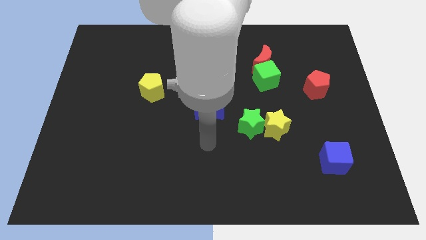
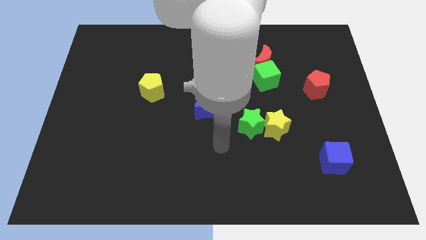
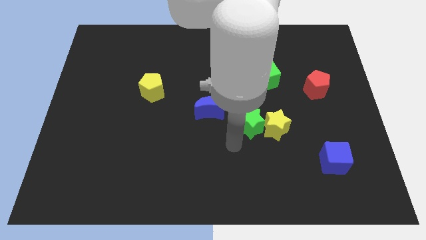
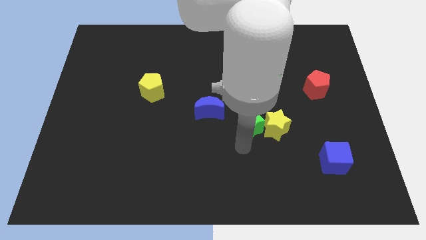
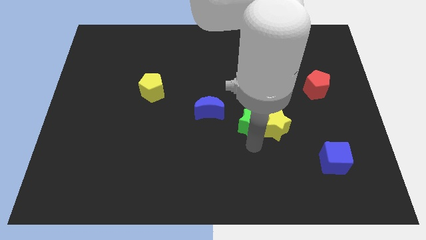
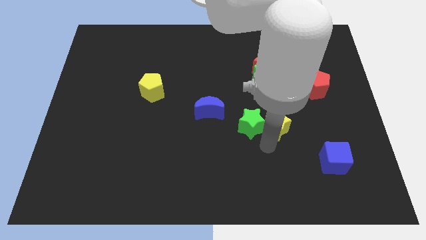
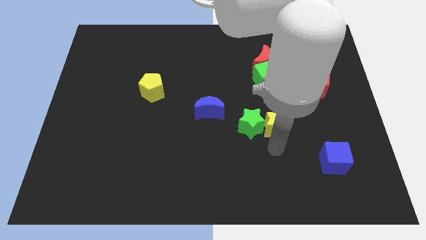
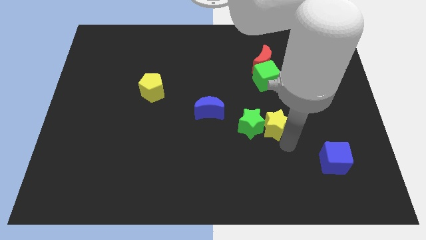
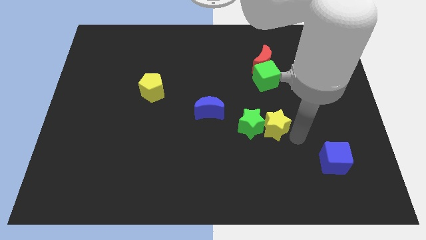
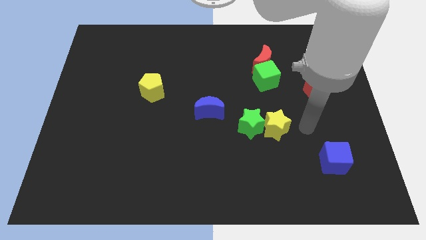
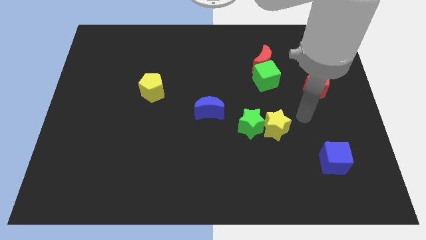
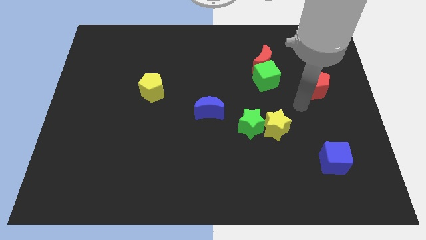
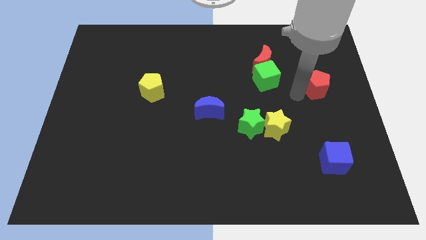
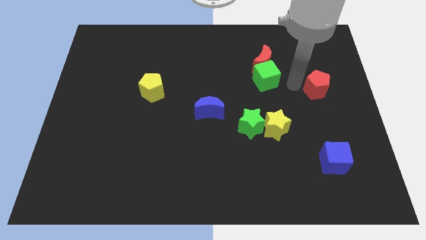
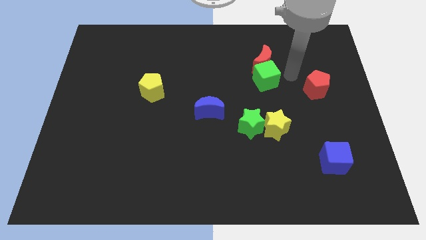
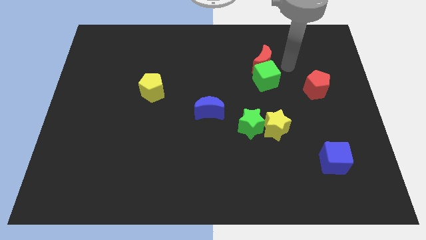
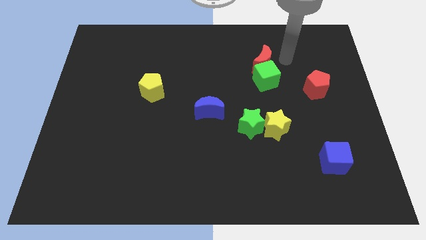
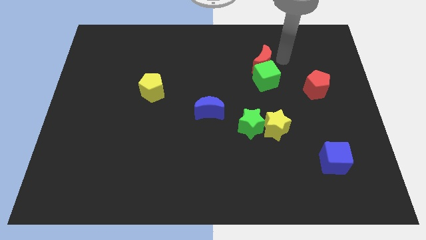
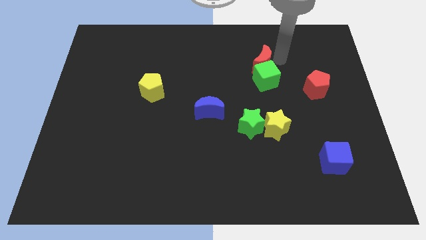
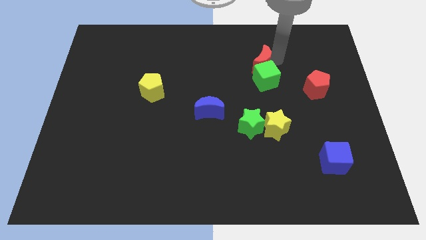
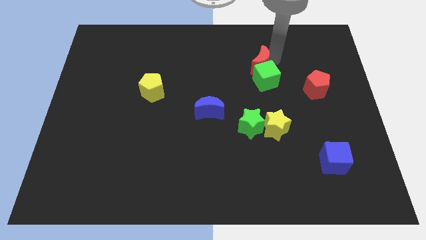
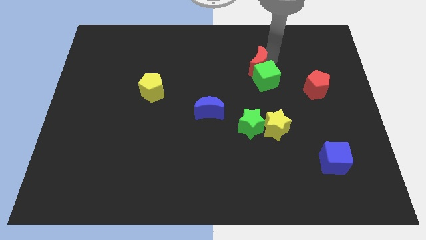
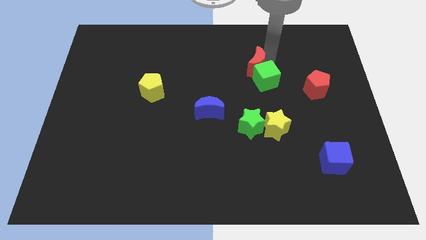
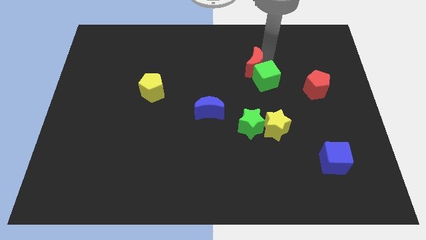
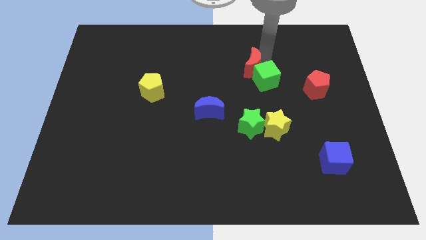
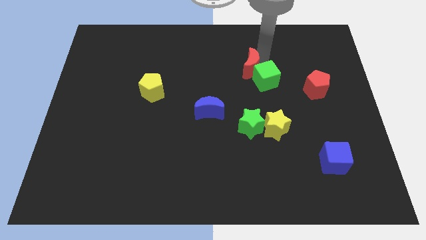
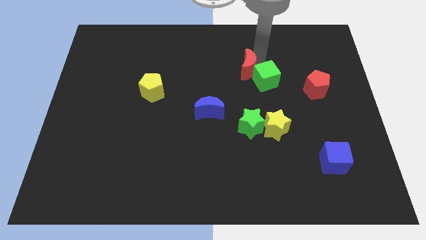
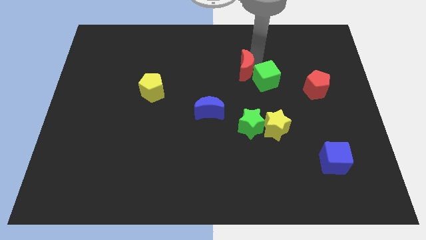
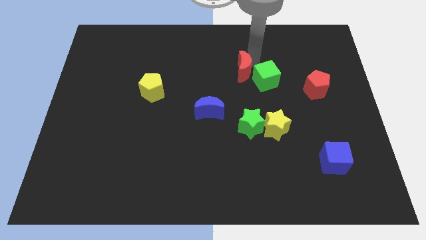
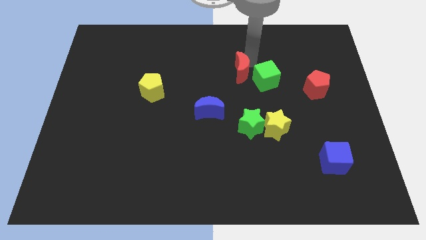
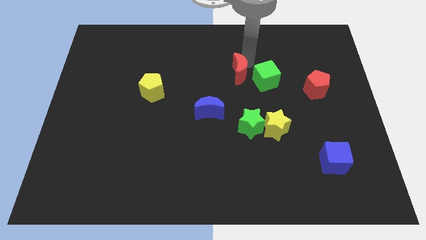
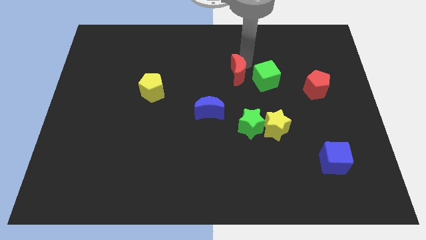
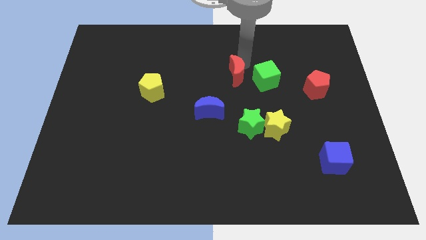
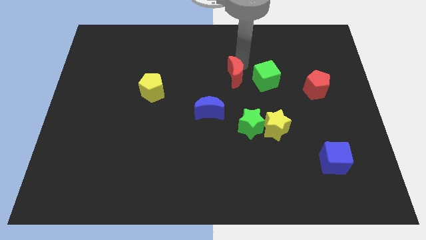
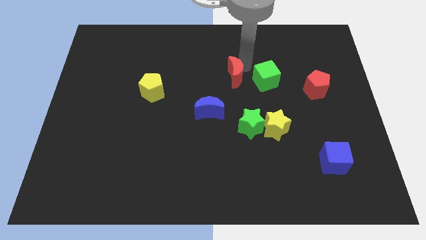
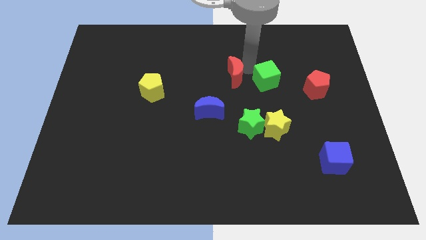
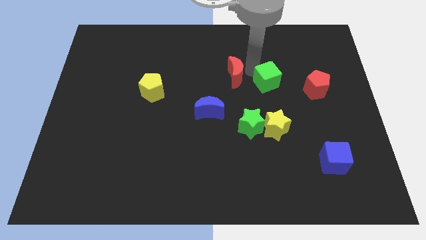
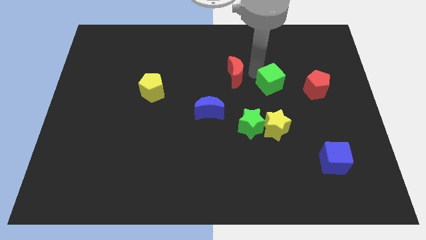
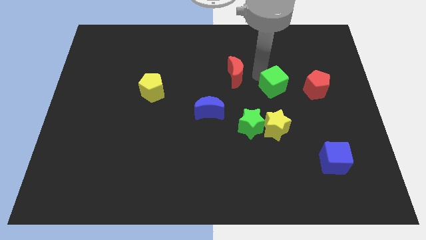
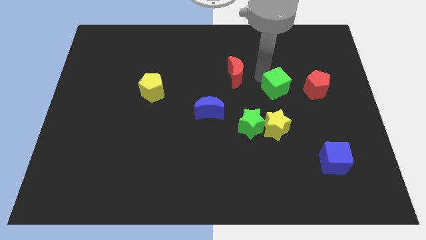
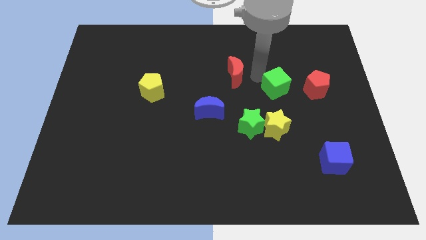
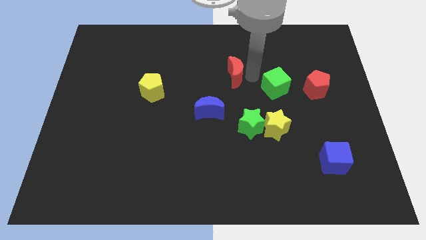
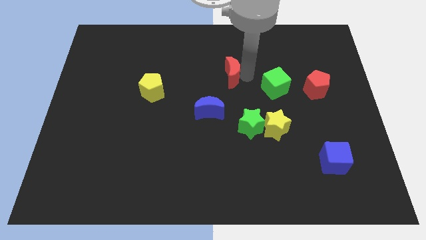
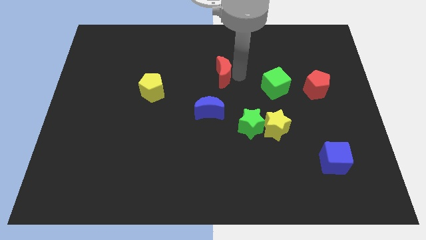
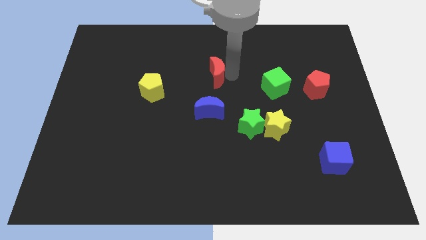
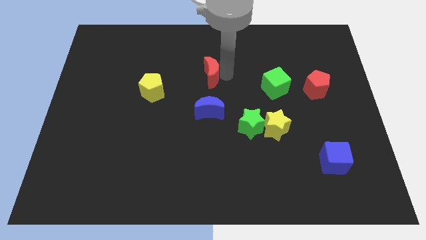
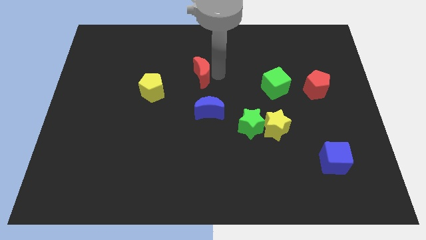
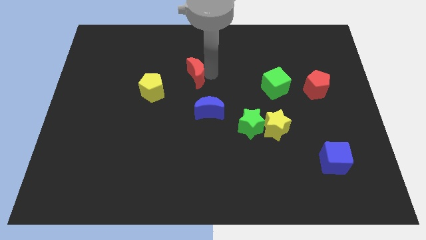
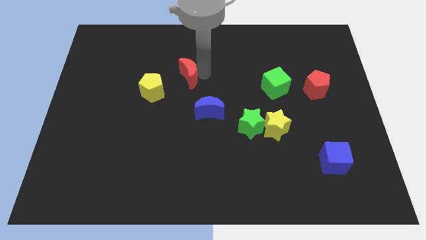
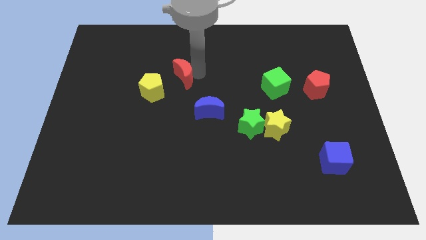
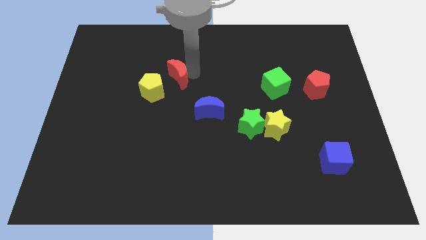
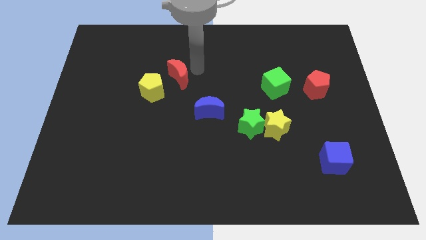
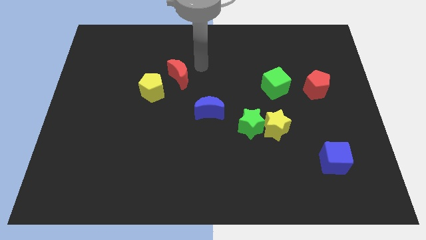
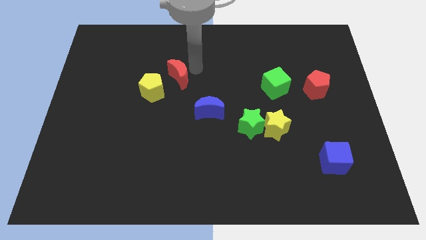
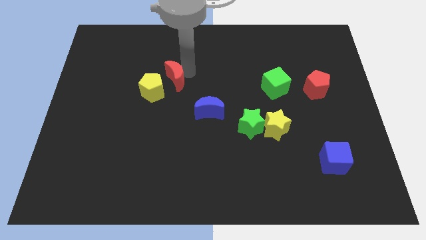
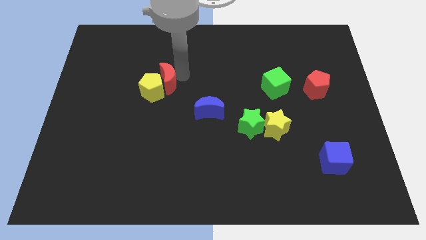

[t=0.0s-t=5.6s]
push the red moon towards the yellow pentagon

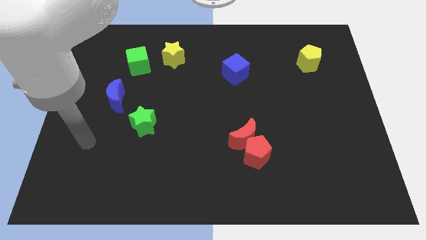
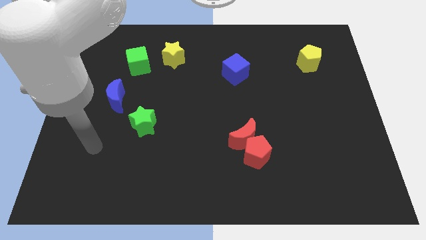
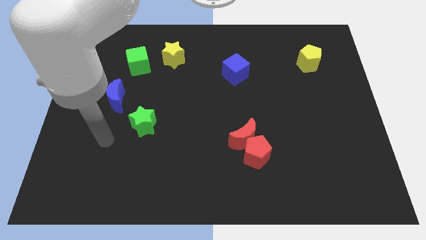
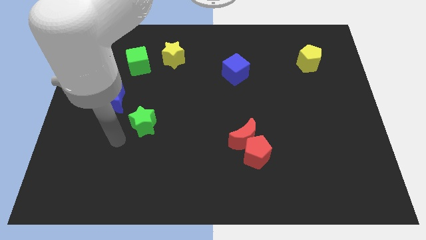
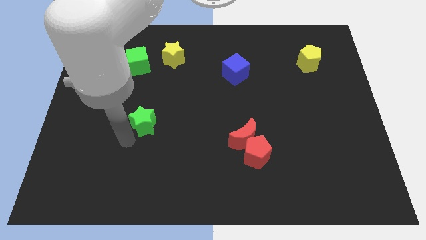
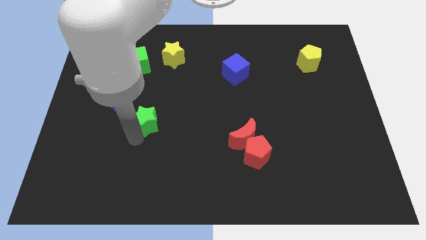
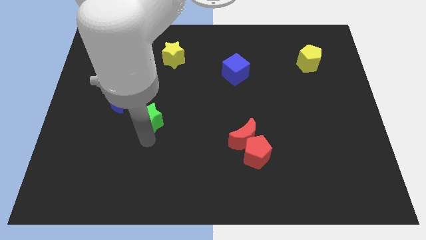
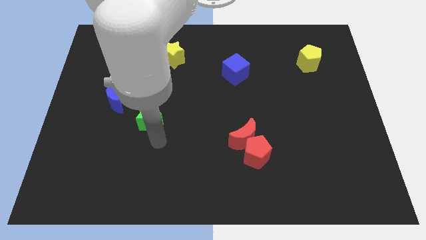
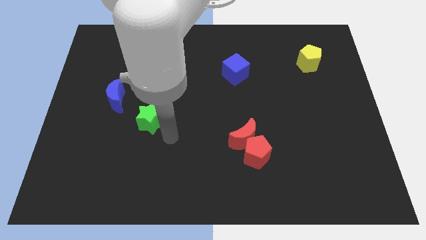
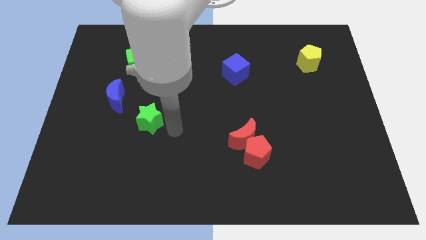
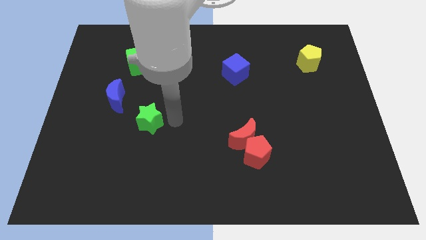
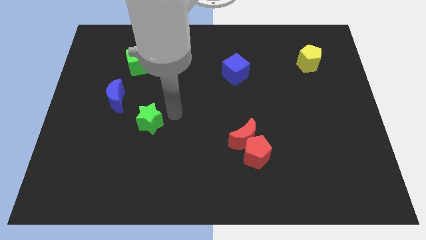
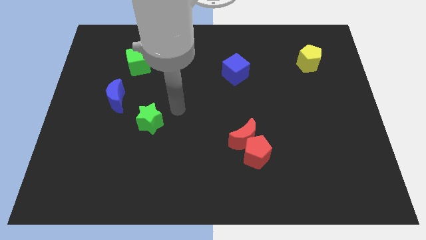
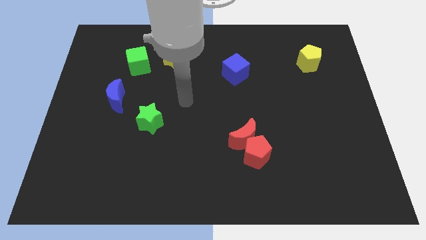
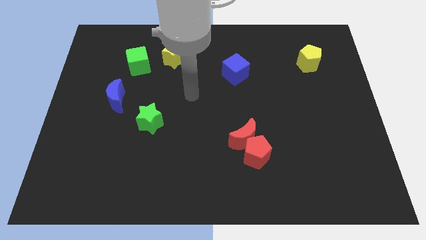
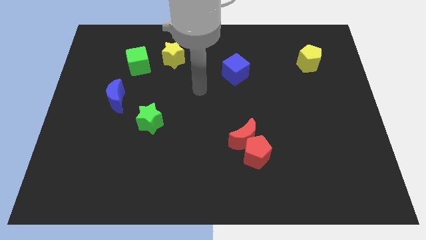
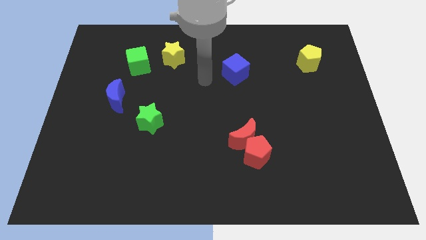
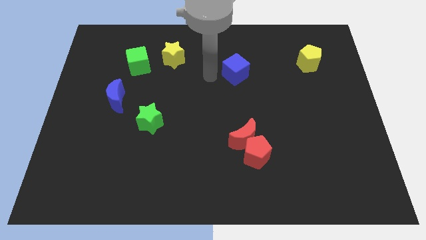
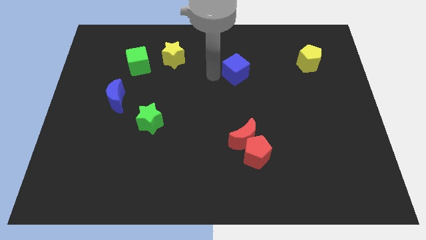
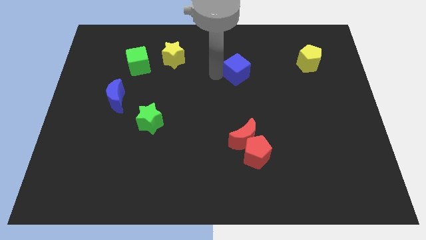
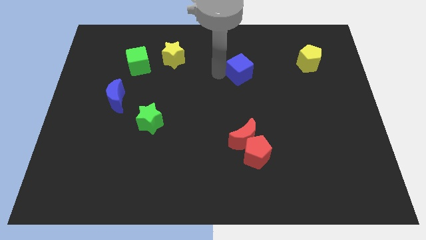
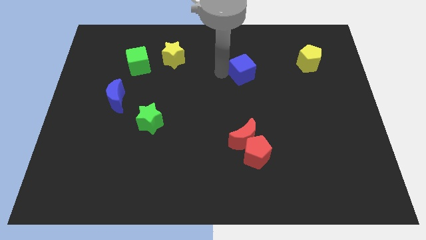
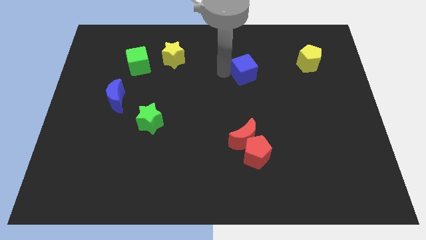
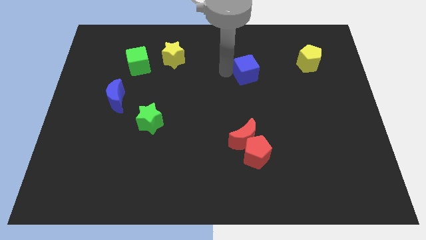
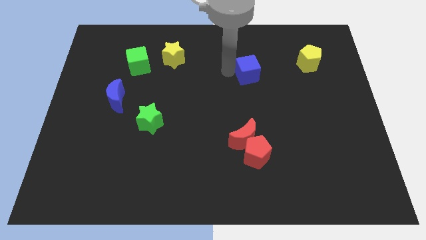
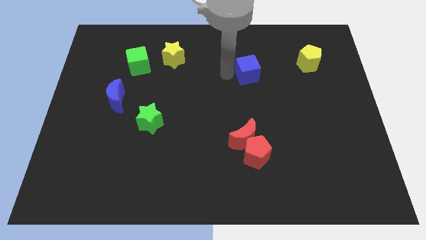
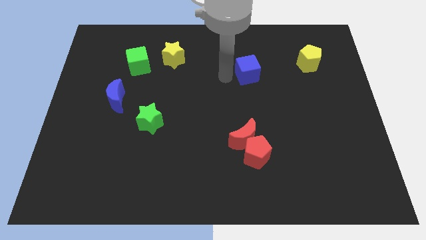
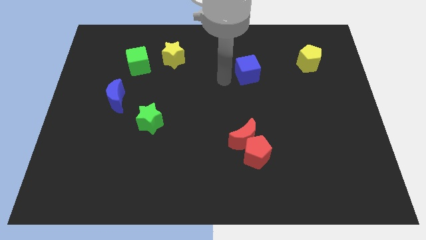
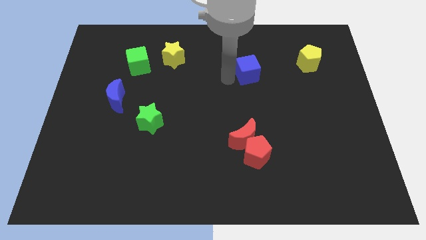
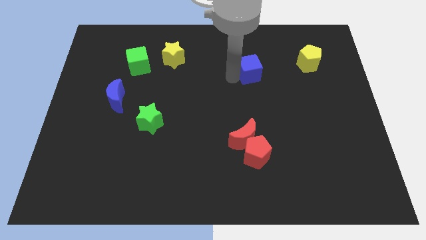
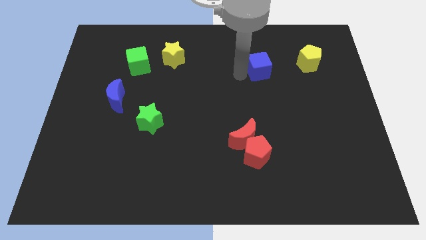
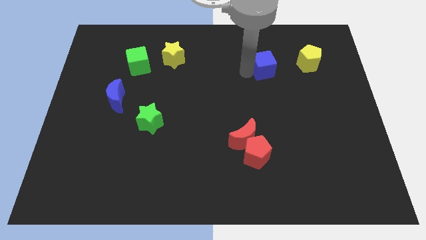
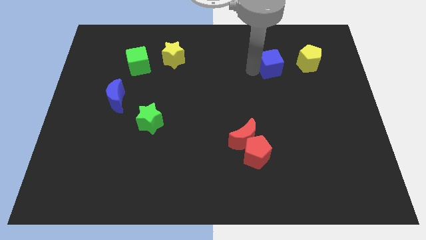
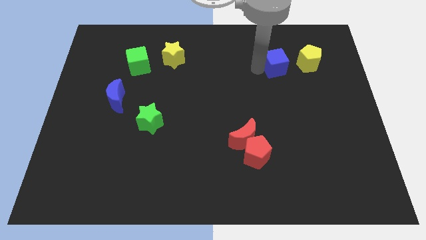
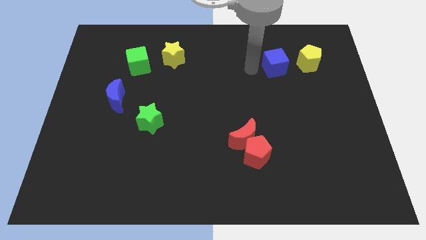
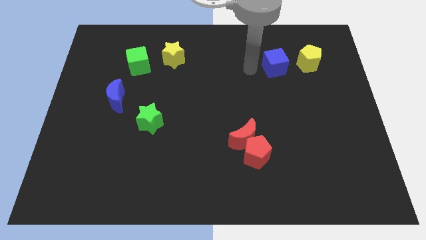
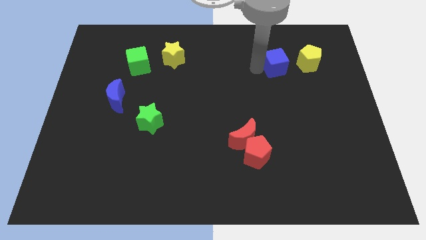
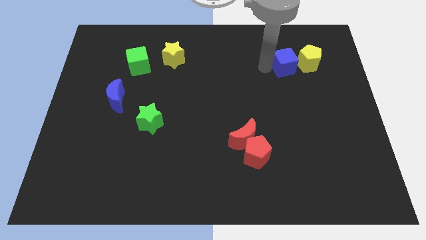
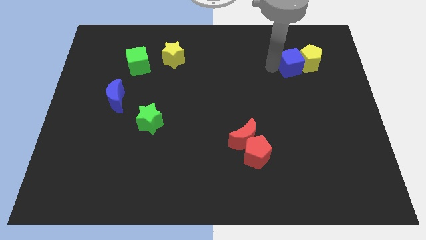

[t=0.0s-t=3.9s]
push the blue cube next to the yellow pentagon
